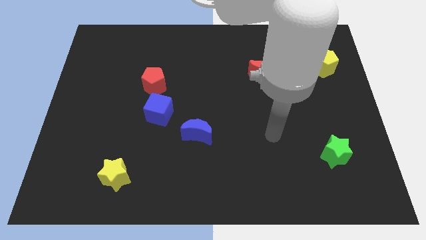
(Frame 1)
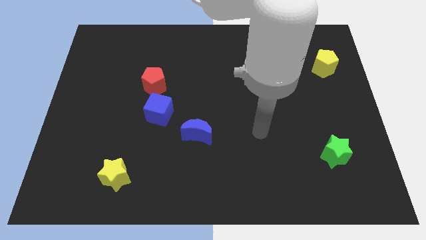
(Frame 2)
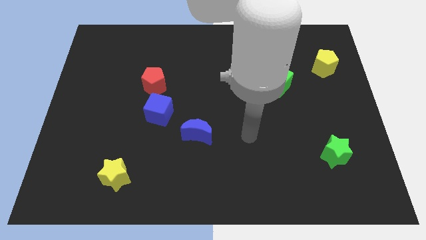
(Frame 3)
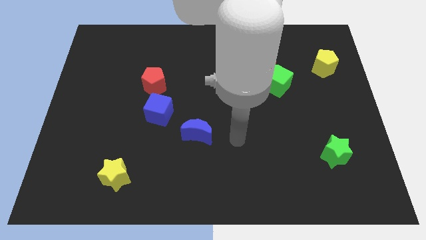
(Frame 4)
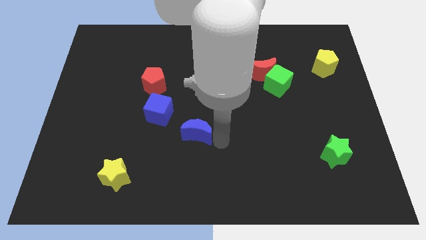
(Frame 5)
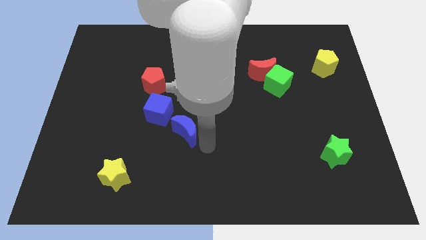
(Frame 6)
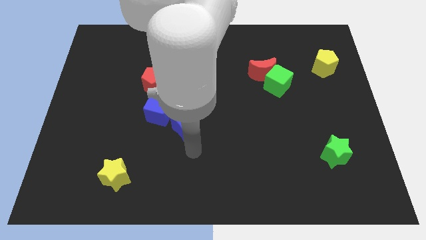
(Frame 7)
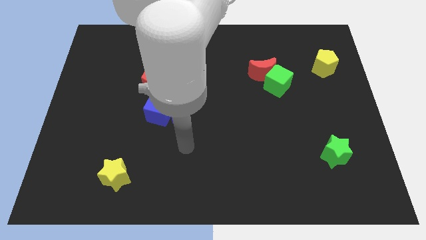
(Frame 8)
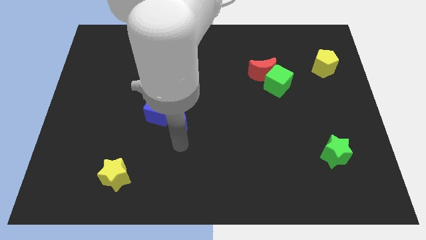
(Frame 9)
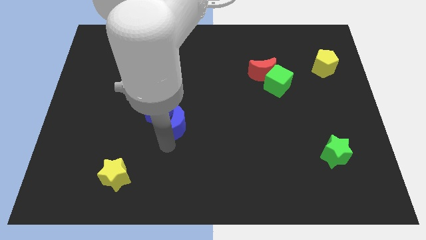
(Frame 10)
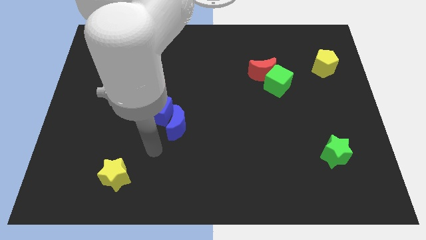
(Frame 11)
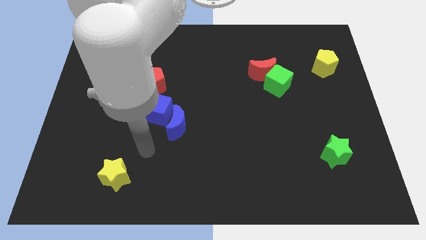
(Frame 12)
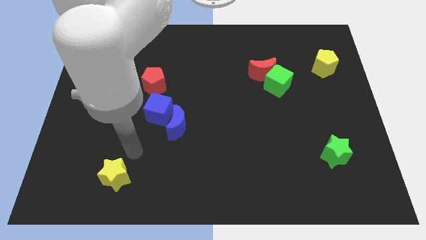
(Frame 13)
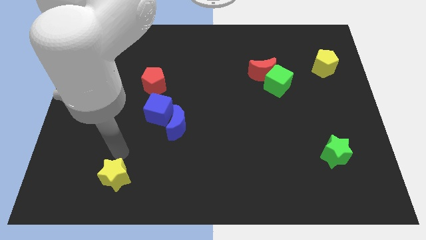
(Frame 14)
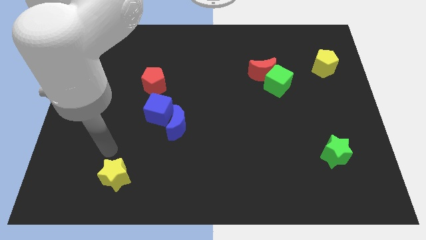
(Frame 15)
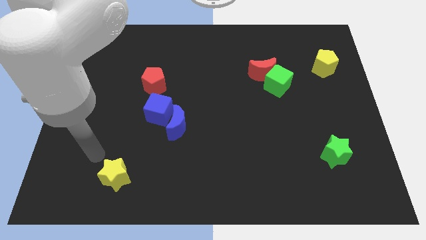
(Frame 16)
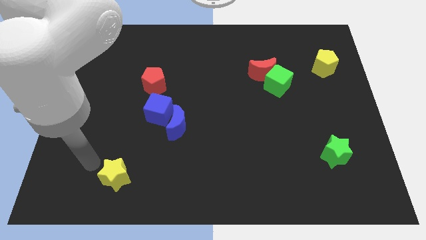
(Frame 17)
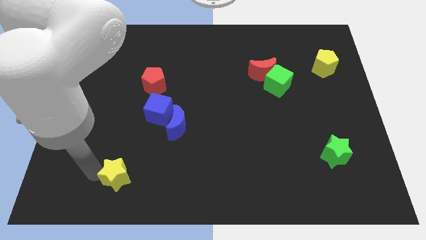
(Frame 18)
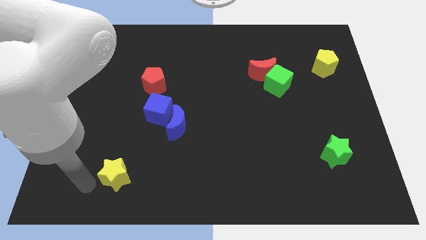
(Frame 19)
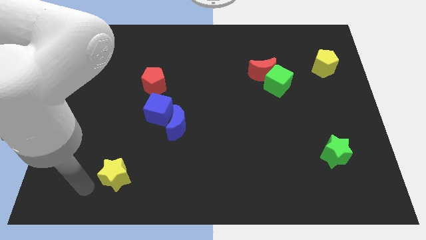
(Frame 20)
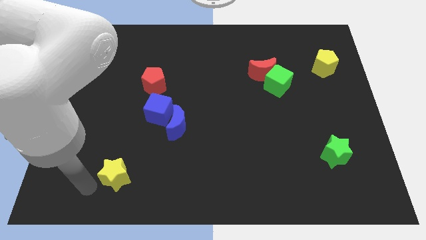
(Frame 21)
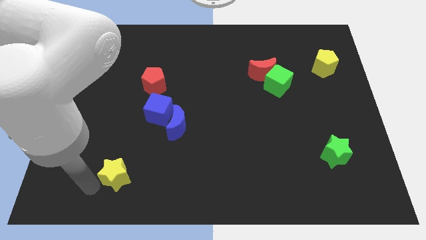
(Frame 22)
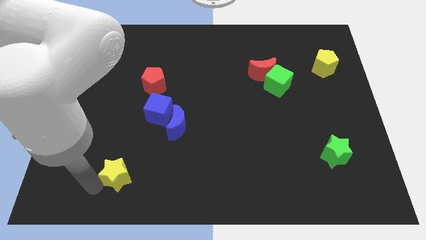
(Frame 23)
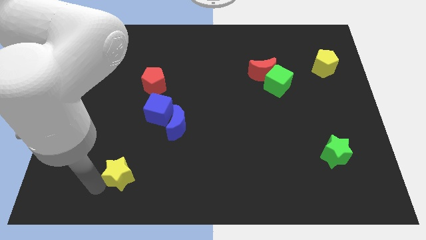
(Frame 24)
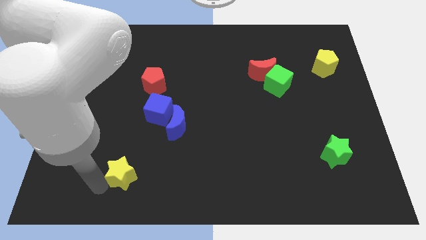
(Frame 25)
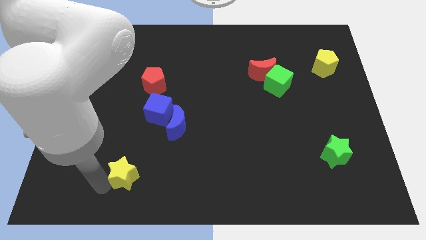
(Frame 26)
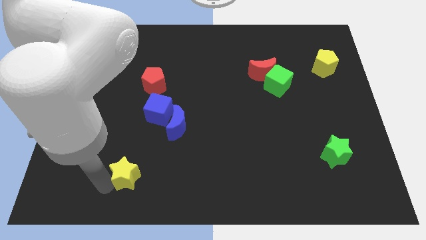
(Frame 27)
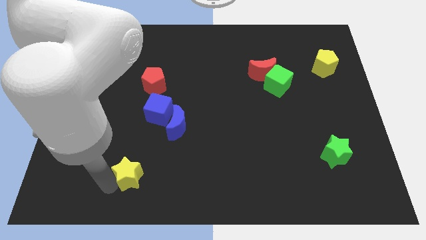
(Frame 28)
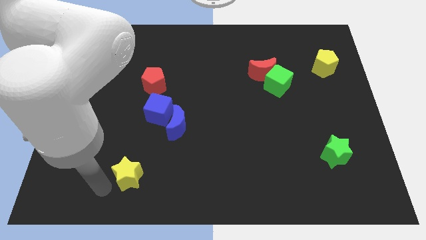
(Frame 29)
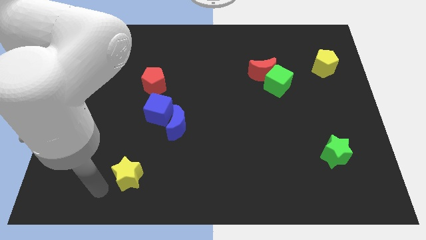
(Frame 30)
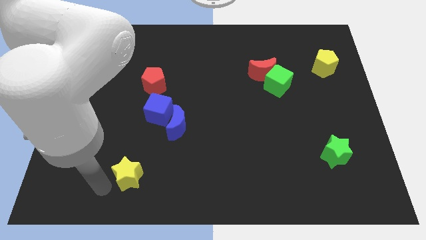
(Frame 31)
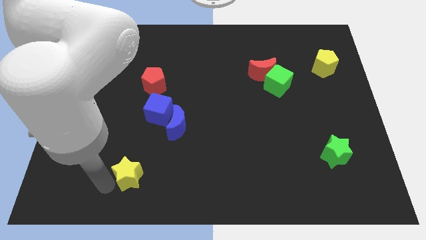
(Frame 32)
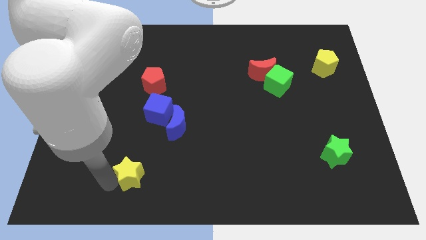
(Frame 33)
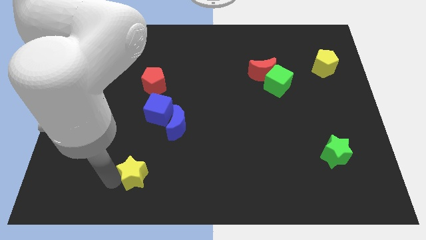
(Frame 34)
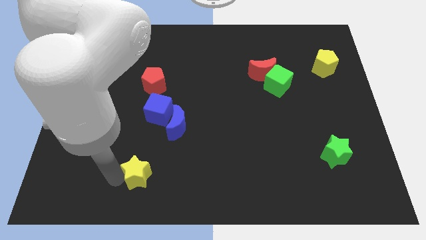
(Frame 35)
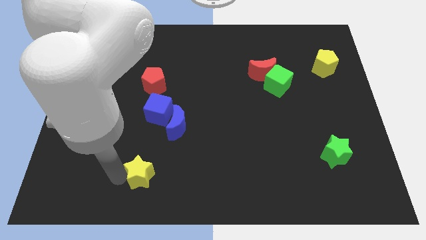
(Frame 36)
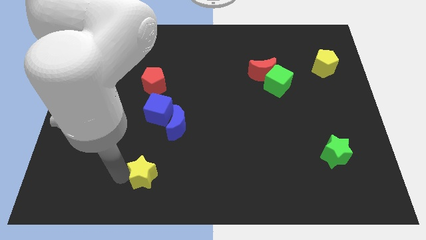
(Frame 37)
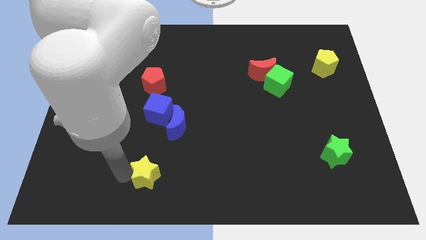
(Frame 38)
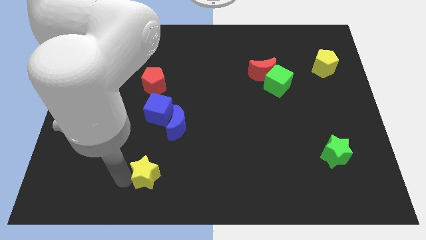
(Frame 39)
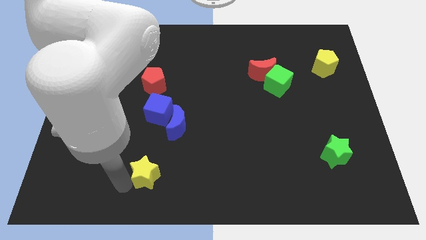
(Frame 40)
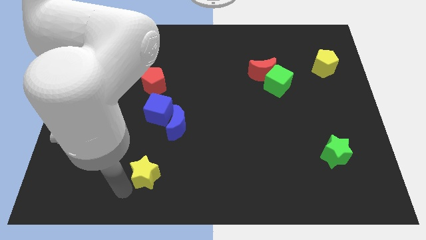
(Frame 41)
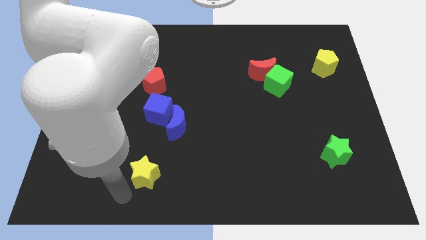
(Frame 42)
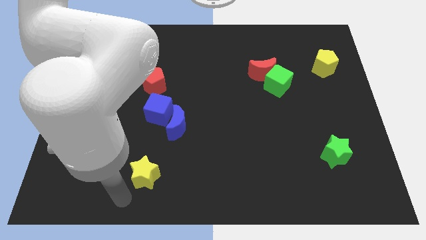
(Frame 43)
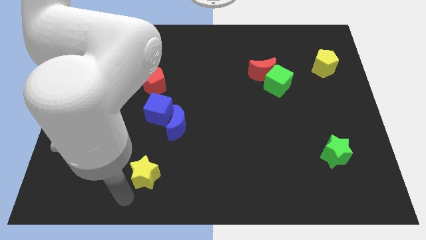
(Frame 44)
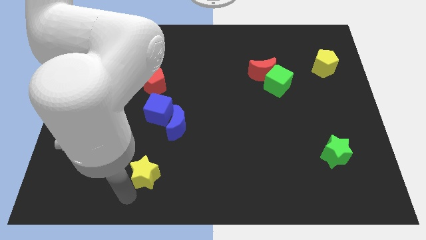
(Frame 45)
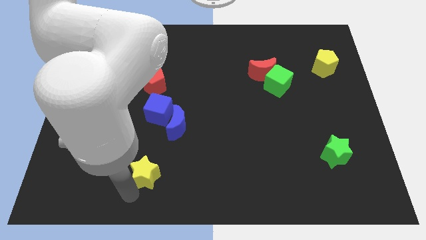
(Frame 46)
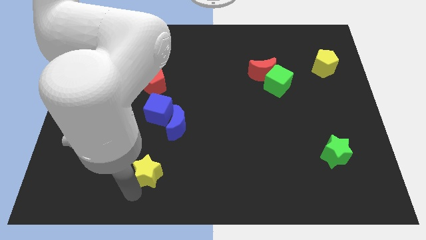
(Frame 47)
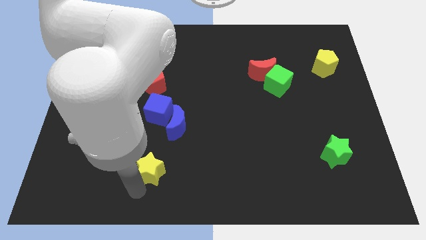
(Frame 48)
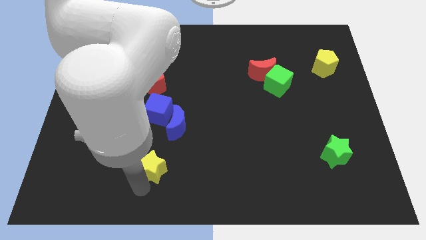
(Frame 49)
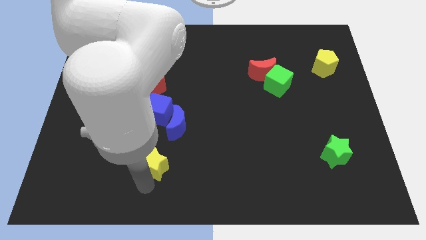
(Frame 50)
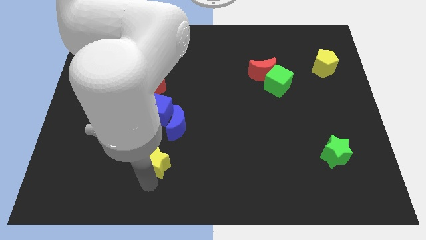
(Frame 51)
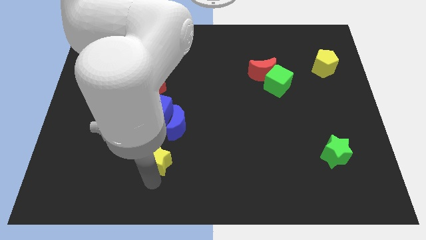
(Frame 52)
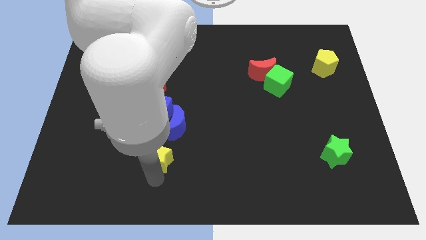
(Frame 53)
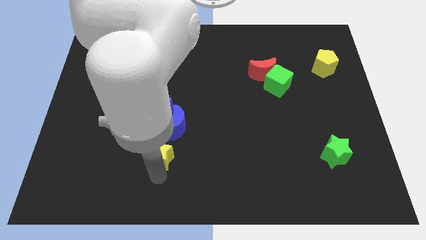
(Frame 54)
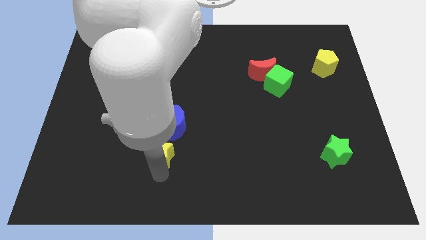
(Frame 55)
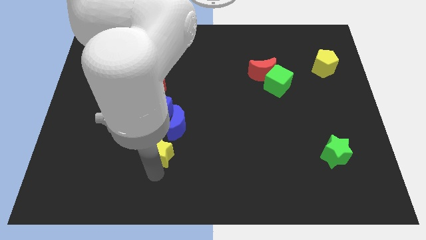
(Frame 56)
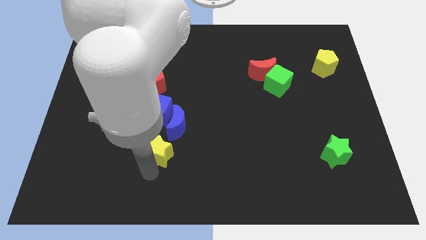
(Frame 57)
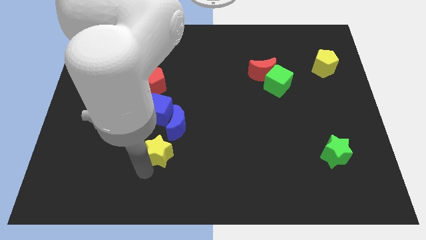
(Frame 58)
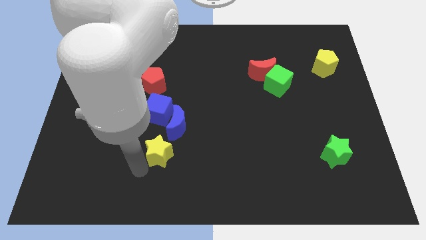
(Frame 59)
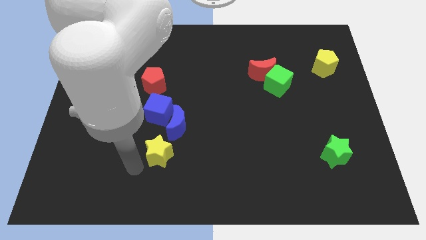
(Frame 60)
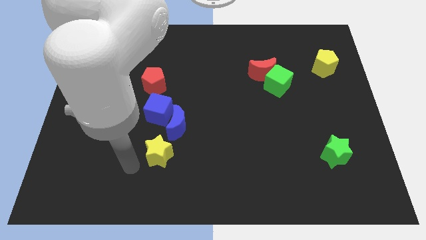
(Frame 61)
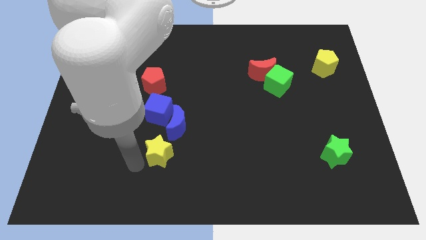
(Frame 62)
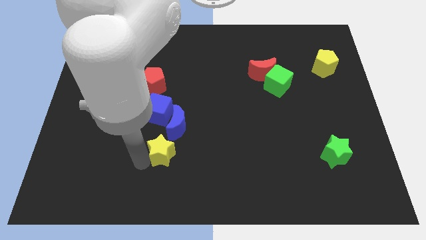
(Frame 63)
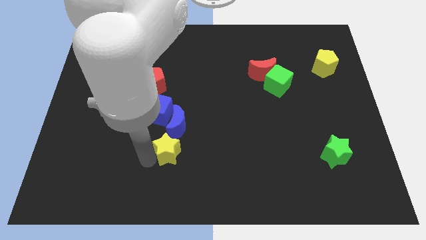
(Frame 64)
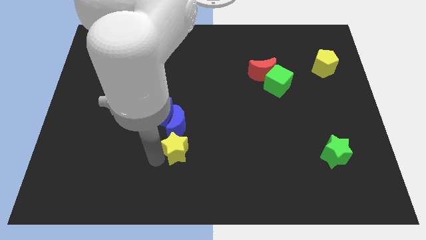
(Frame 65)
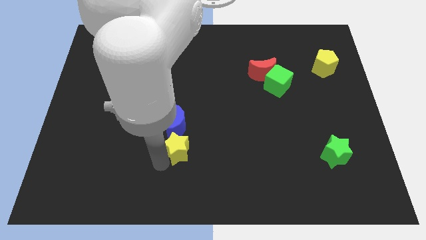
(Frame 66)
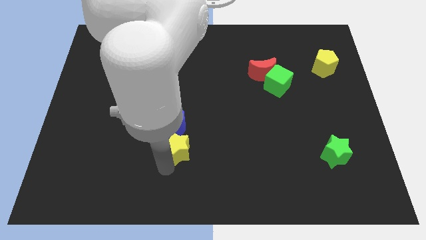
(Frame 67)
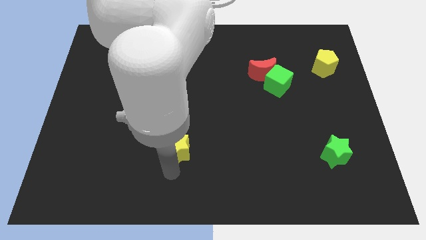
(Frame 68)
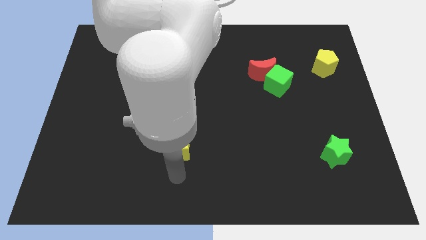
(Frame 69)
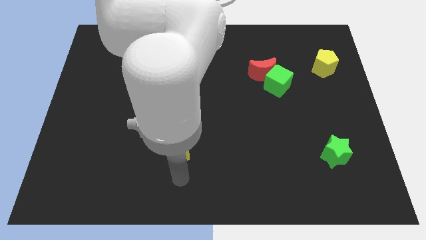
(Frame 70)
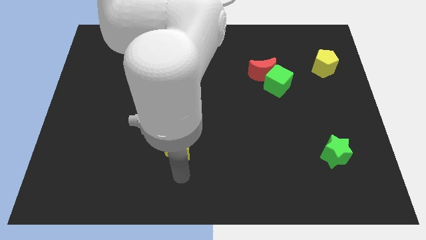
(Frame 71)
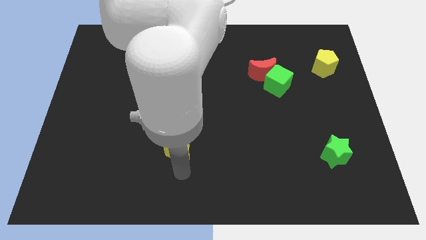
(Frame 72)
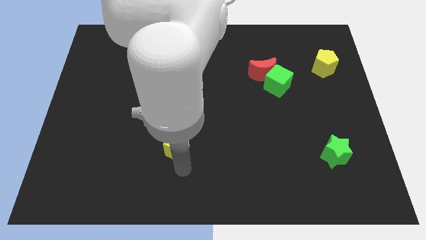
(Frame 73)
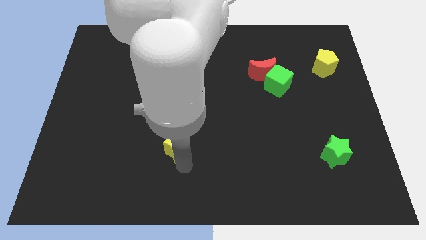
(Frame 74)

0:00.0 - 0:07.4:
push the yellow star to the blue moon
